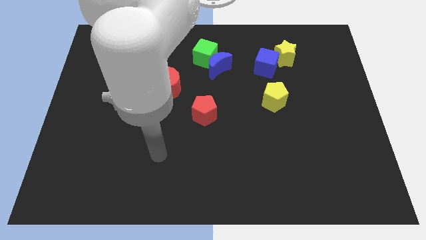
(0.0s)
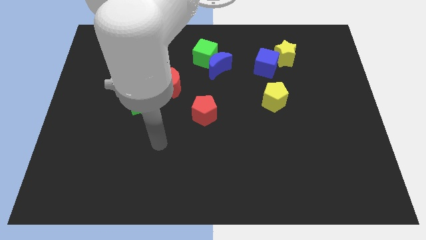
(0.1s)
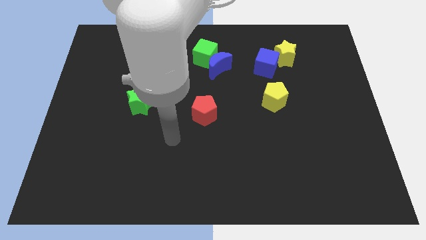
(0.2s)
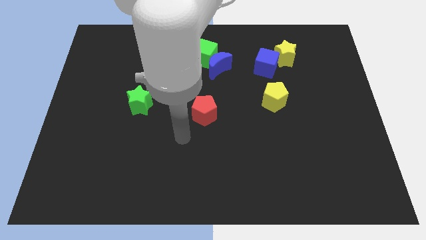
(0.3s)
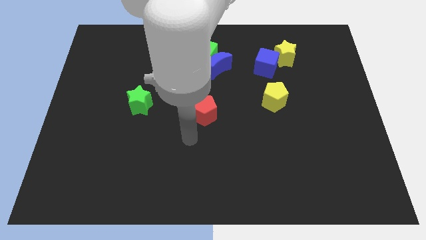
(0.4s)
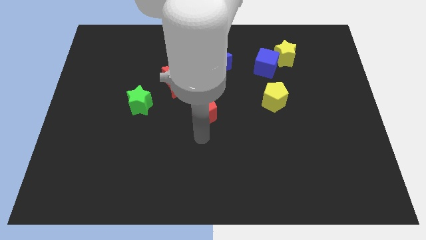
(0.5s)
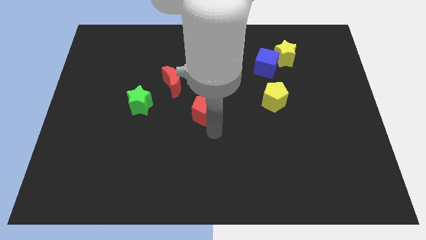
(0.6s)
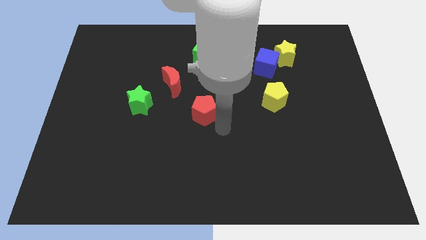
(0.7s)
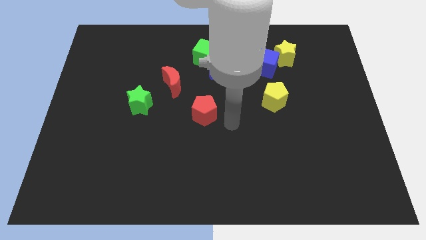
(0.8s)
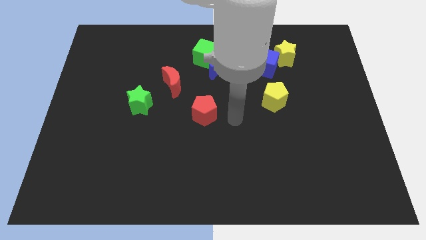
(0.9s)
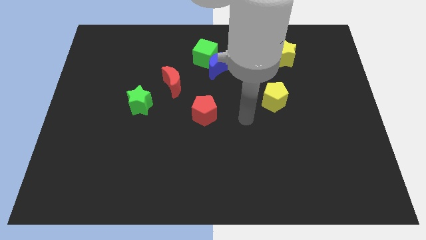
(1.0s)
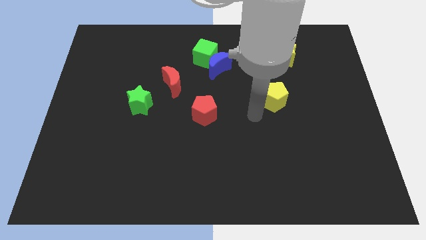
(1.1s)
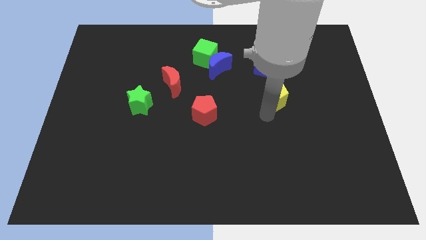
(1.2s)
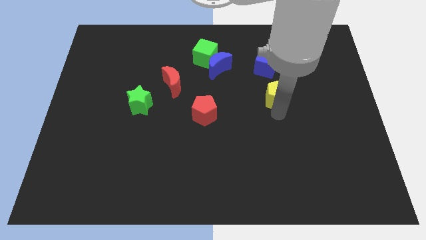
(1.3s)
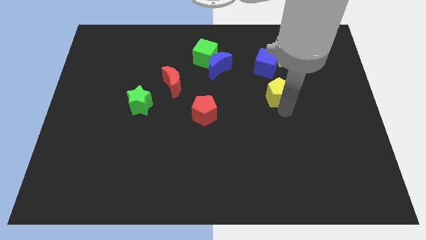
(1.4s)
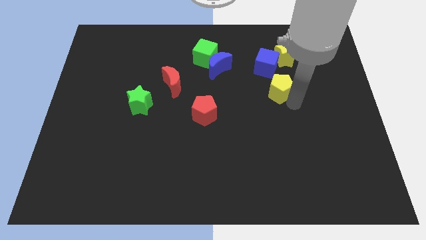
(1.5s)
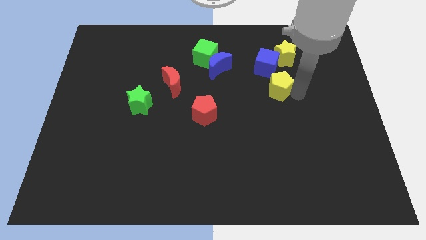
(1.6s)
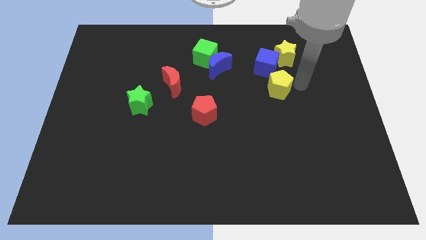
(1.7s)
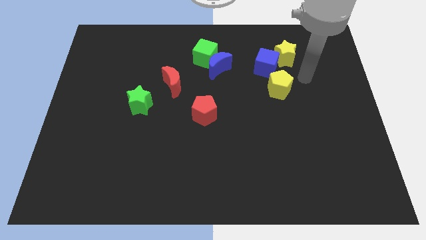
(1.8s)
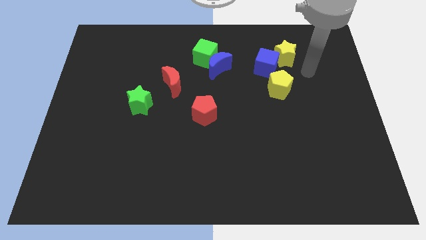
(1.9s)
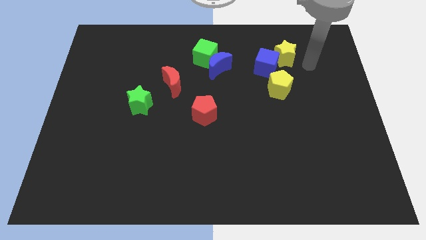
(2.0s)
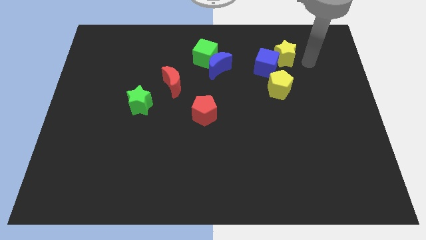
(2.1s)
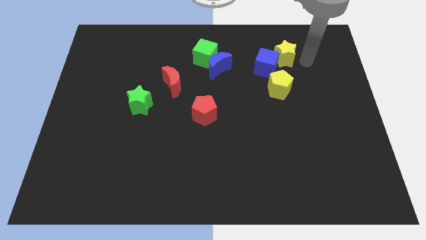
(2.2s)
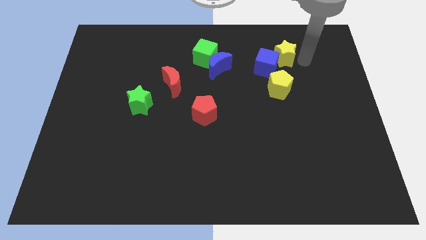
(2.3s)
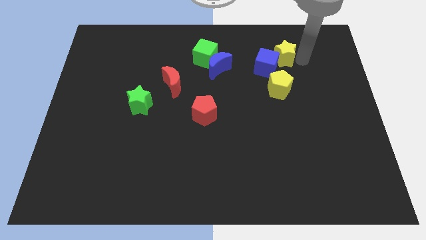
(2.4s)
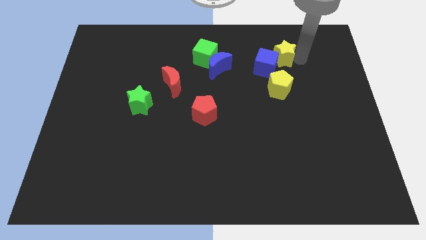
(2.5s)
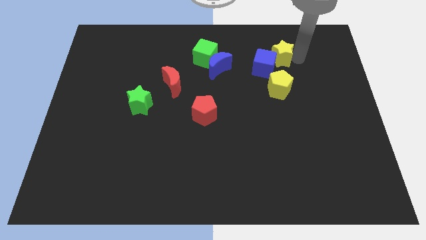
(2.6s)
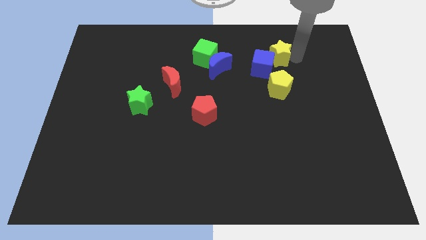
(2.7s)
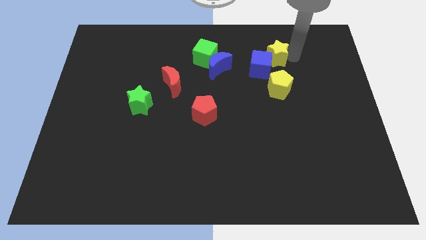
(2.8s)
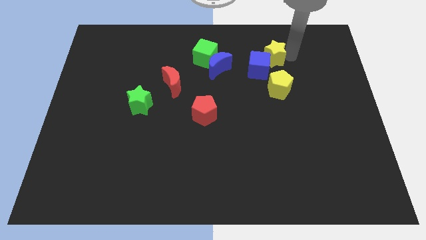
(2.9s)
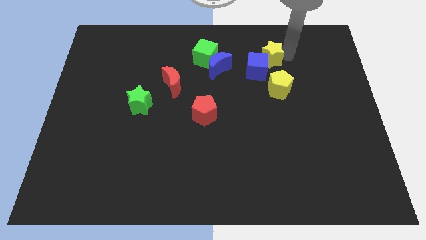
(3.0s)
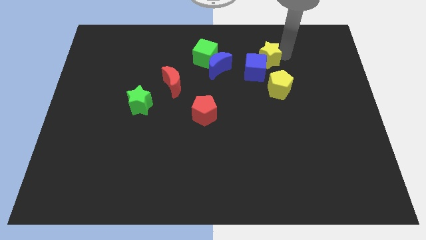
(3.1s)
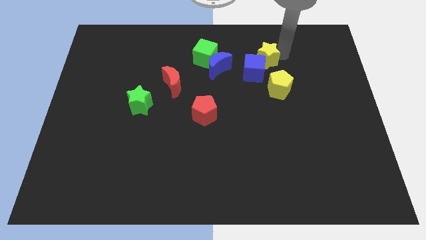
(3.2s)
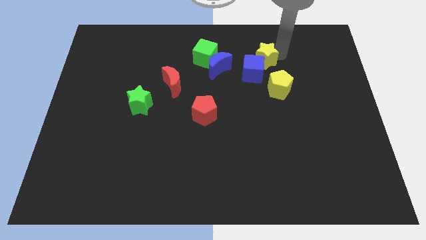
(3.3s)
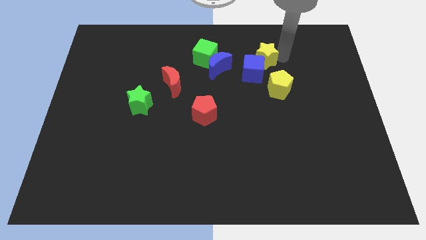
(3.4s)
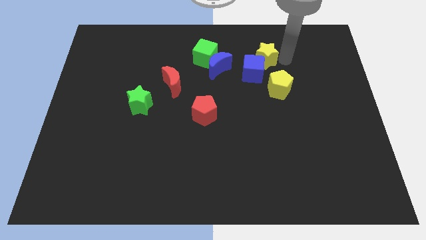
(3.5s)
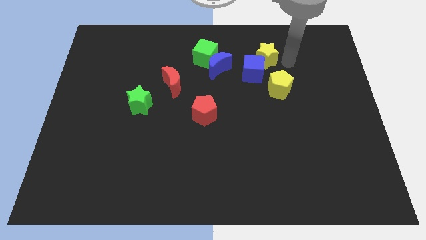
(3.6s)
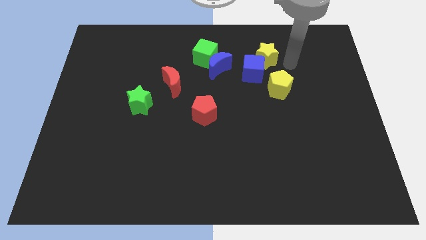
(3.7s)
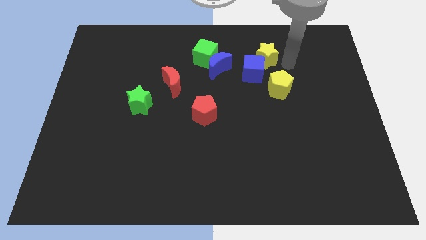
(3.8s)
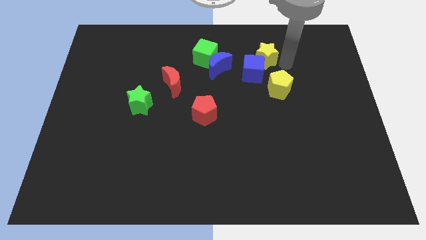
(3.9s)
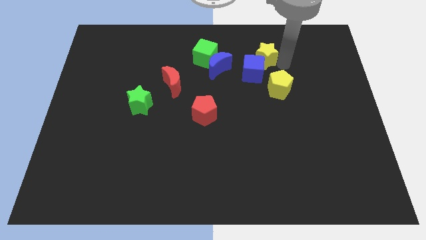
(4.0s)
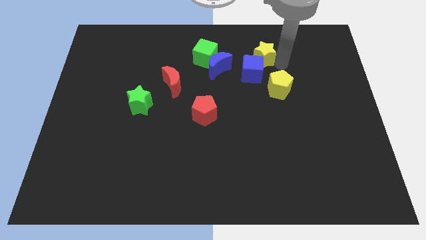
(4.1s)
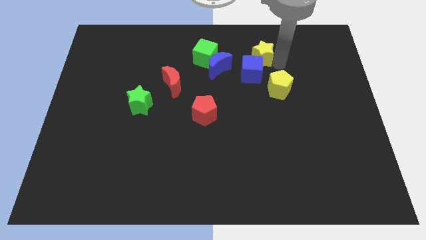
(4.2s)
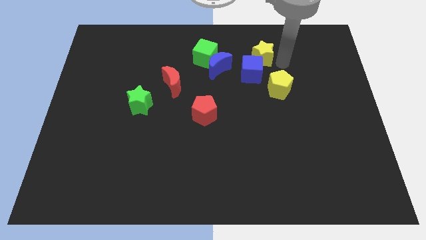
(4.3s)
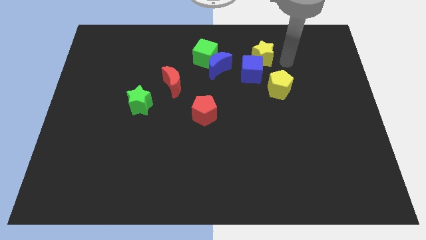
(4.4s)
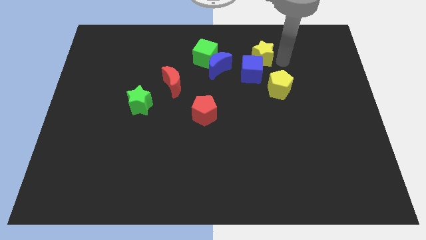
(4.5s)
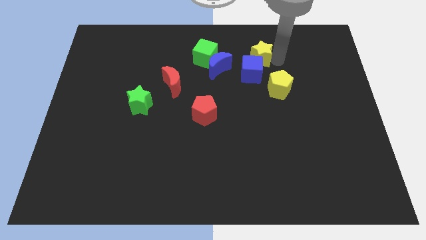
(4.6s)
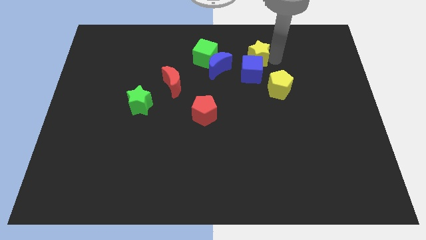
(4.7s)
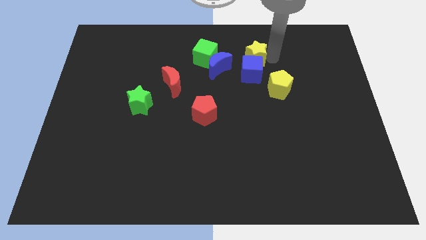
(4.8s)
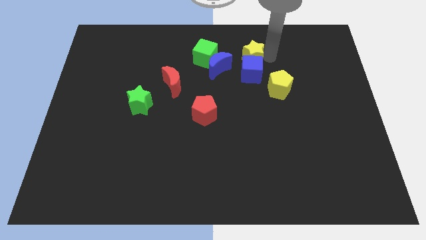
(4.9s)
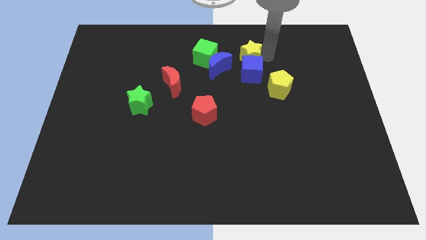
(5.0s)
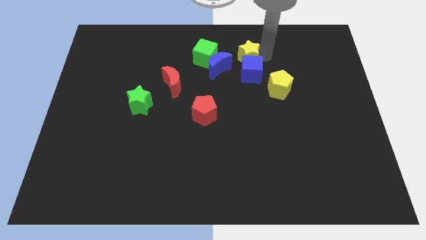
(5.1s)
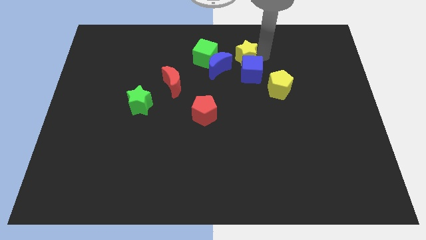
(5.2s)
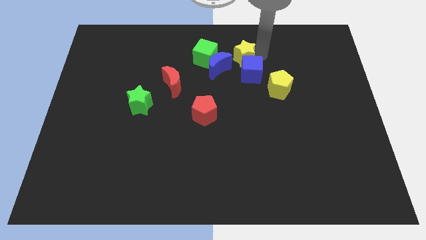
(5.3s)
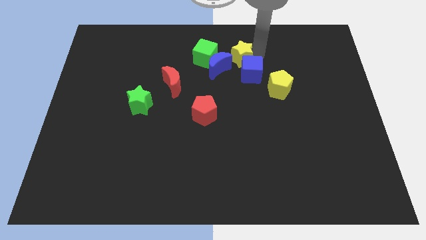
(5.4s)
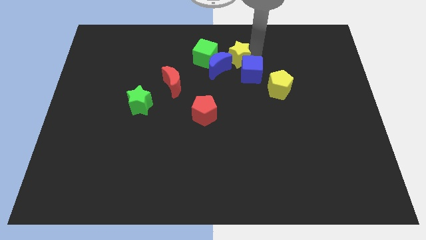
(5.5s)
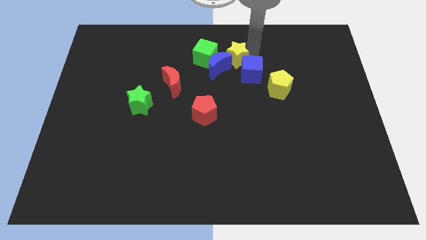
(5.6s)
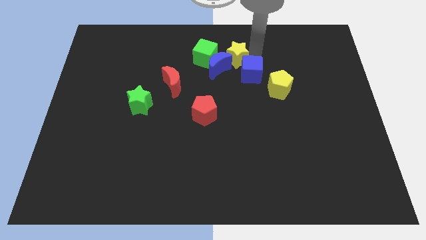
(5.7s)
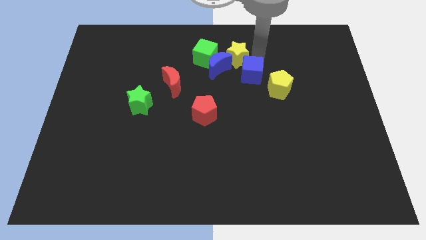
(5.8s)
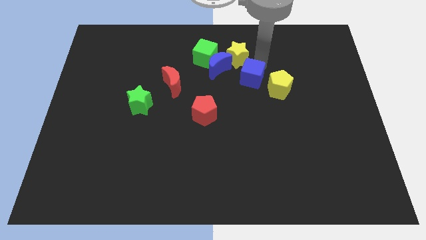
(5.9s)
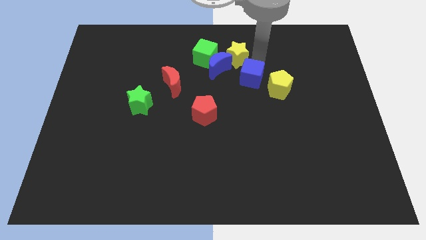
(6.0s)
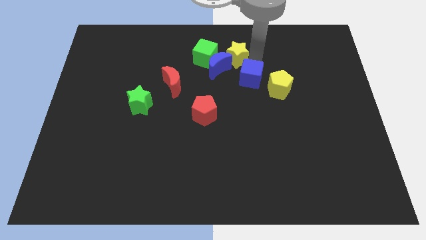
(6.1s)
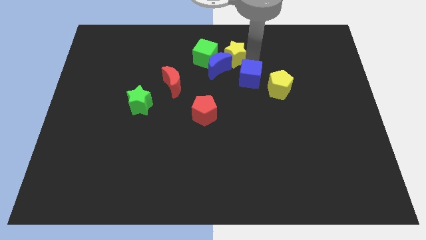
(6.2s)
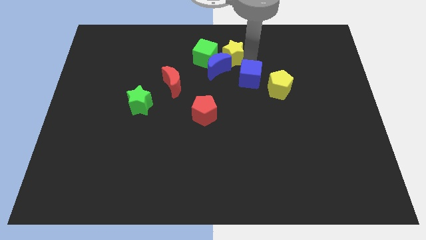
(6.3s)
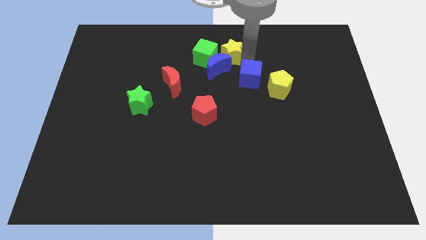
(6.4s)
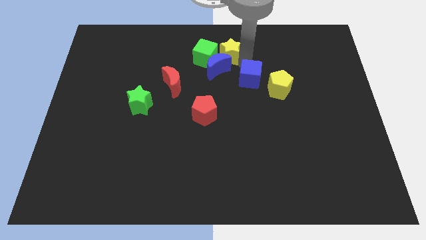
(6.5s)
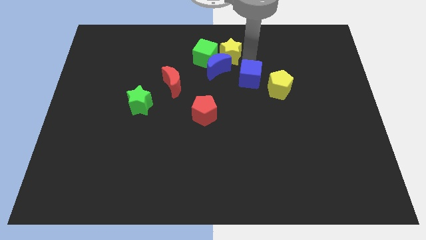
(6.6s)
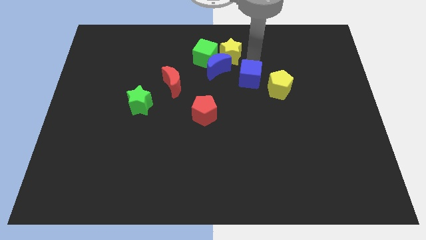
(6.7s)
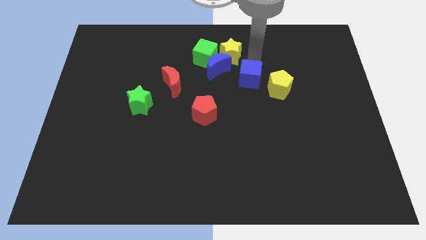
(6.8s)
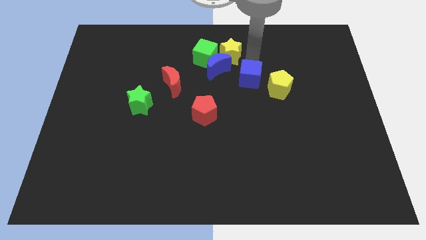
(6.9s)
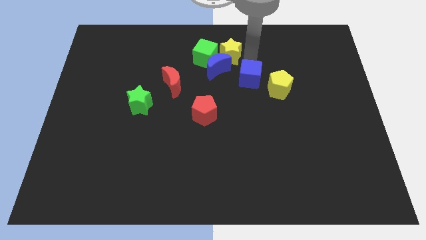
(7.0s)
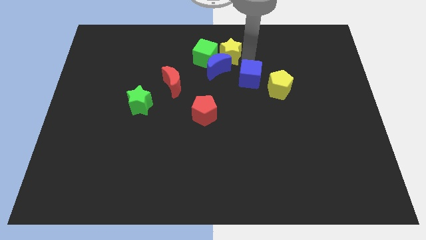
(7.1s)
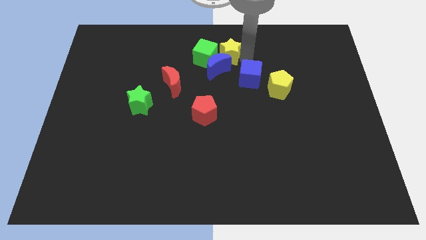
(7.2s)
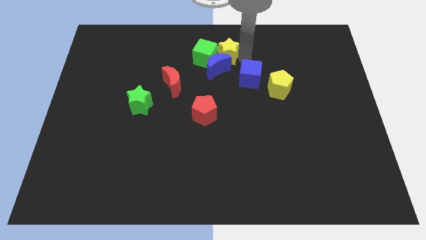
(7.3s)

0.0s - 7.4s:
move the yellow star towards the green cube

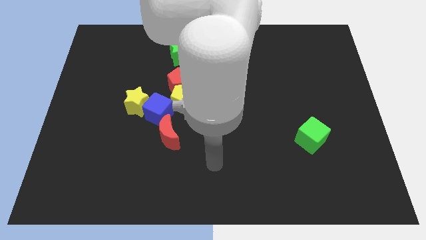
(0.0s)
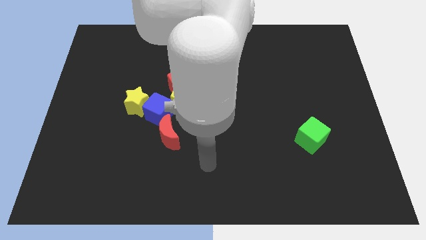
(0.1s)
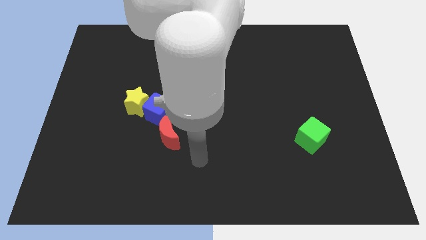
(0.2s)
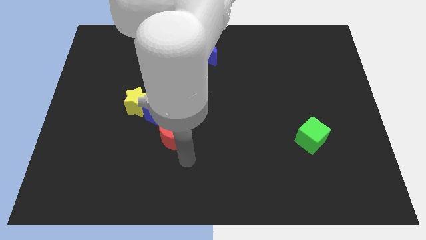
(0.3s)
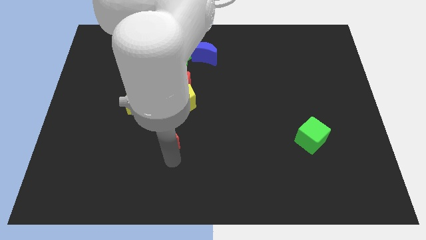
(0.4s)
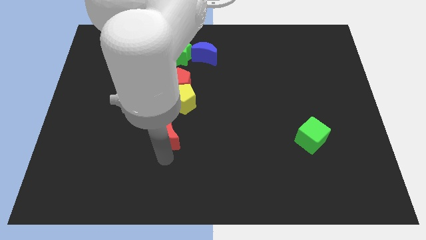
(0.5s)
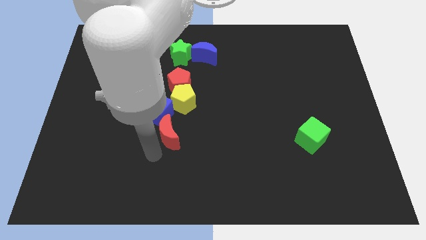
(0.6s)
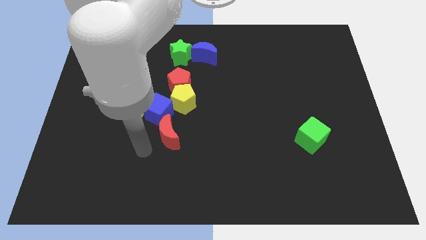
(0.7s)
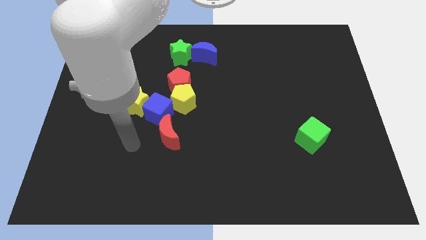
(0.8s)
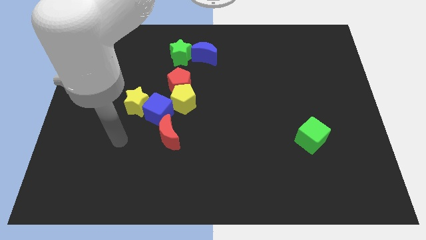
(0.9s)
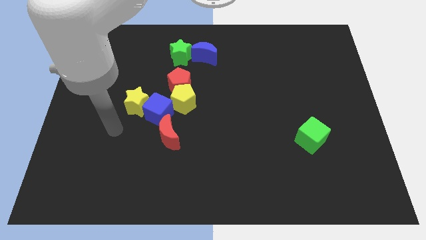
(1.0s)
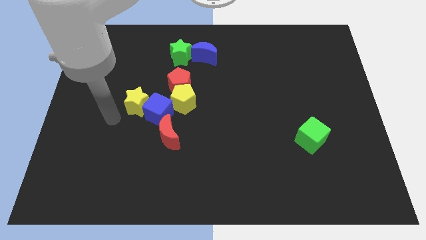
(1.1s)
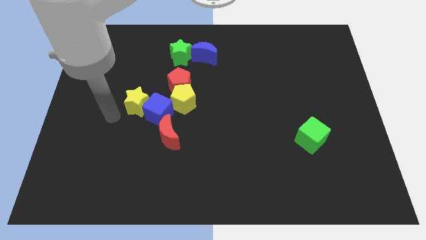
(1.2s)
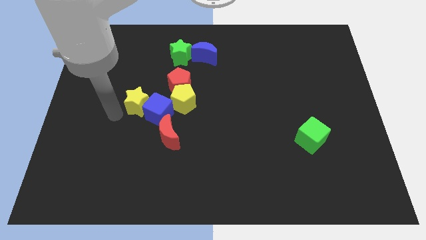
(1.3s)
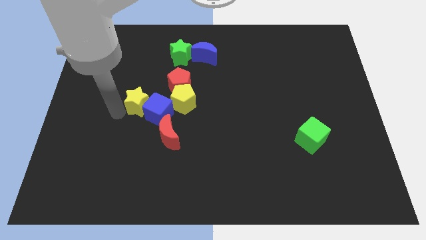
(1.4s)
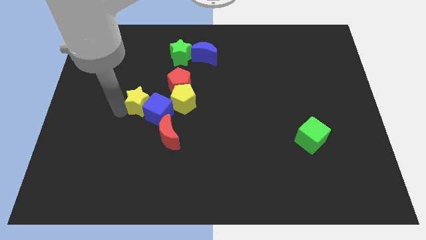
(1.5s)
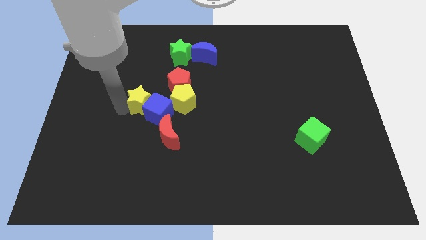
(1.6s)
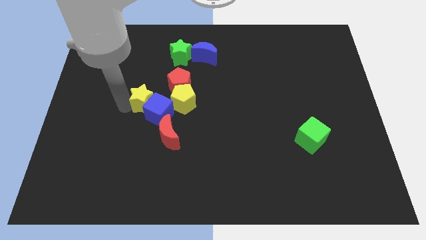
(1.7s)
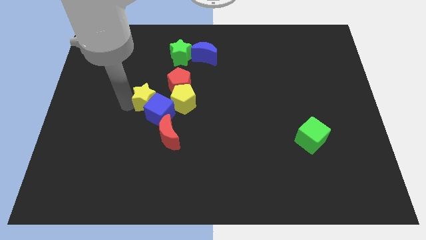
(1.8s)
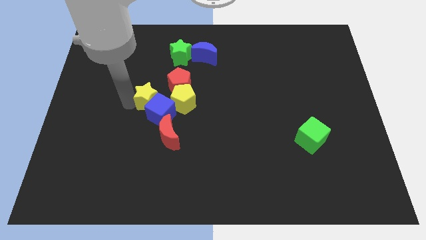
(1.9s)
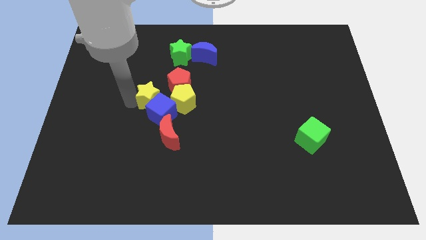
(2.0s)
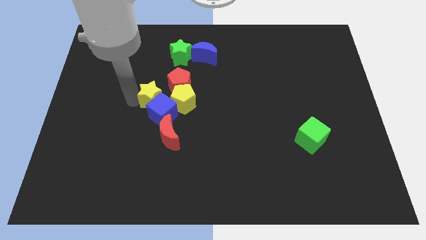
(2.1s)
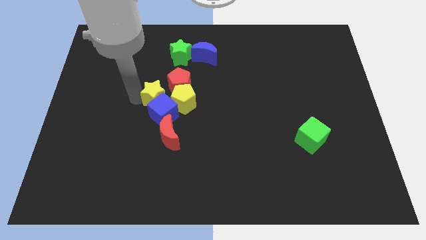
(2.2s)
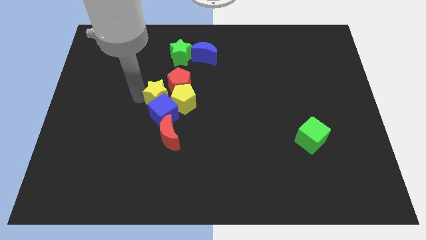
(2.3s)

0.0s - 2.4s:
put the yellow star next to the red pentagon
